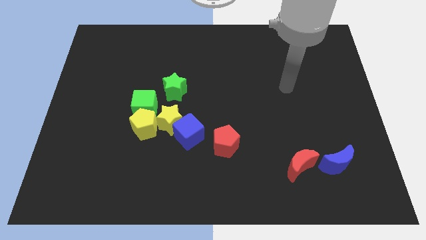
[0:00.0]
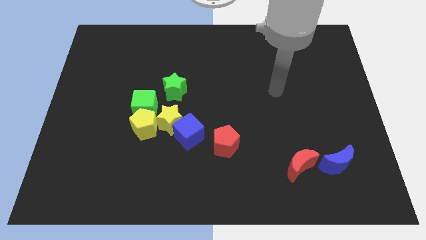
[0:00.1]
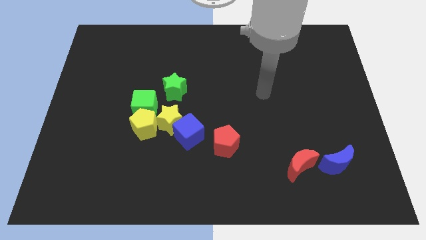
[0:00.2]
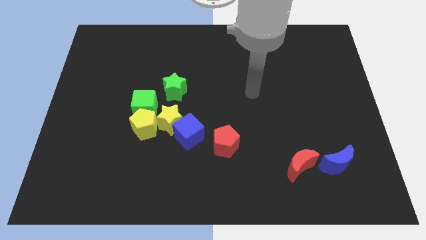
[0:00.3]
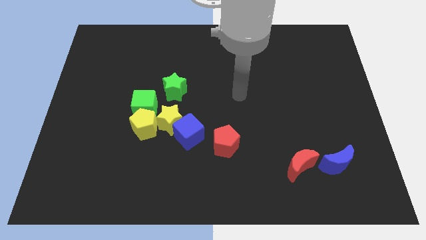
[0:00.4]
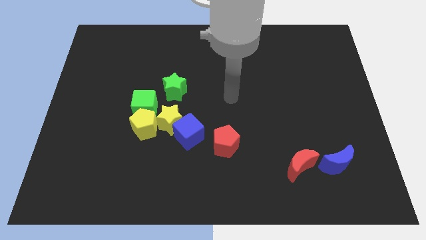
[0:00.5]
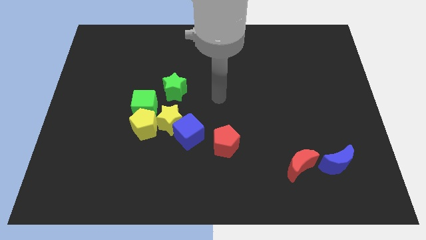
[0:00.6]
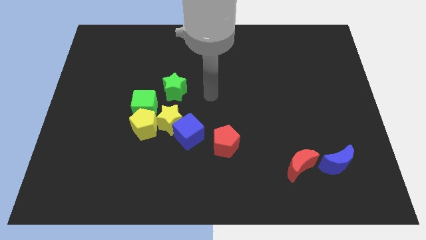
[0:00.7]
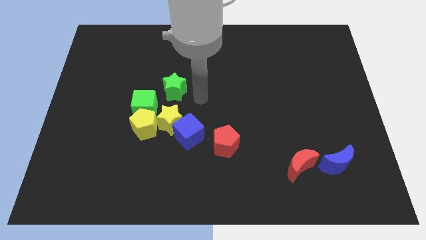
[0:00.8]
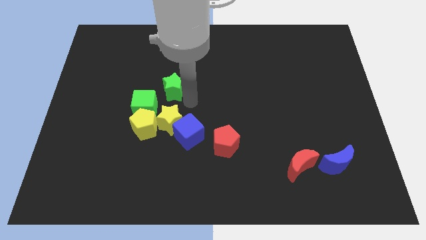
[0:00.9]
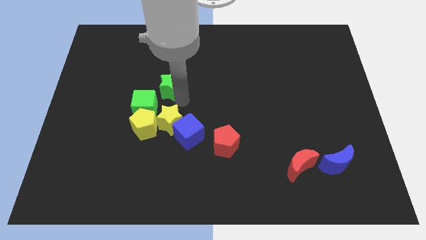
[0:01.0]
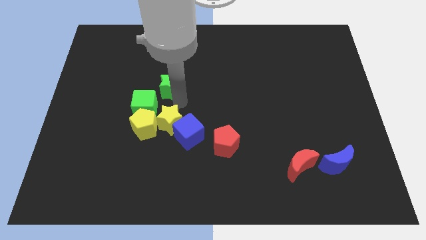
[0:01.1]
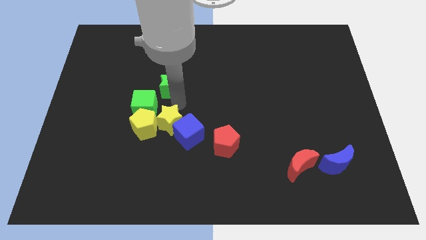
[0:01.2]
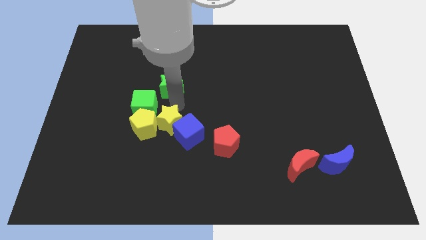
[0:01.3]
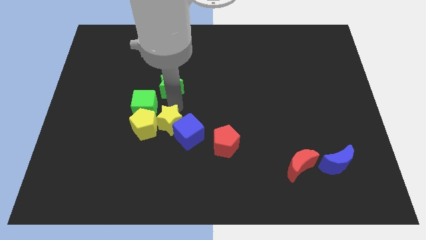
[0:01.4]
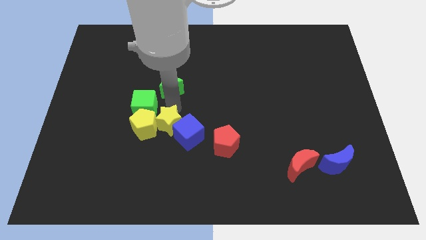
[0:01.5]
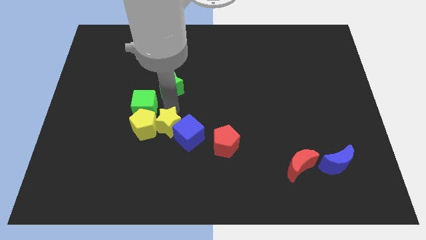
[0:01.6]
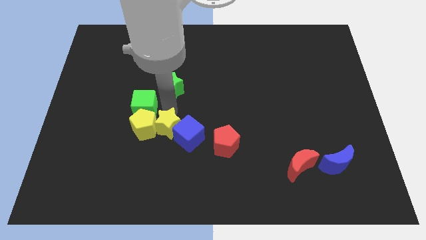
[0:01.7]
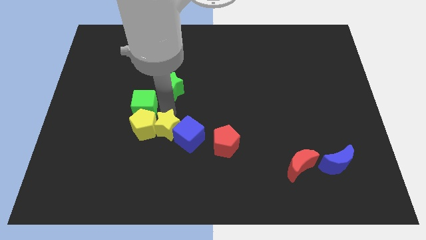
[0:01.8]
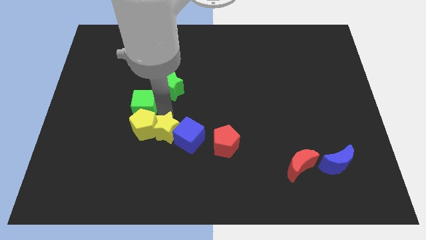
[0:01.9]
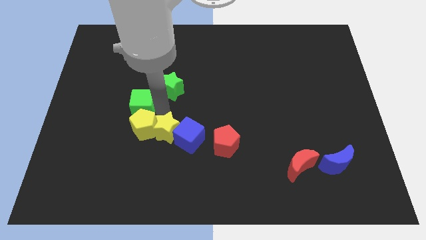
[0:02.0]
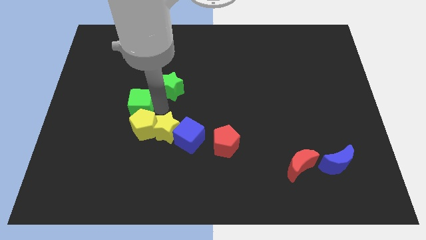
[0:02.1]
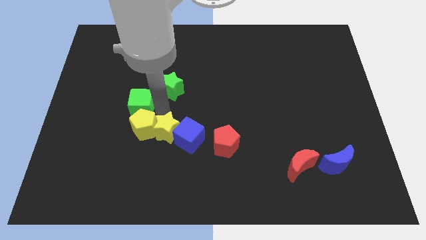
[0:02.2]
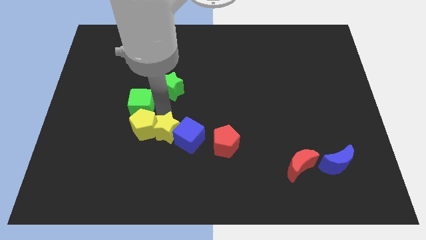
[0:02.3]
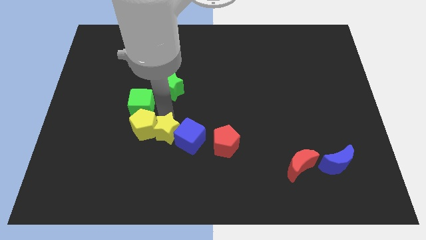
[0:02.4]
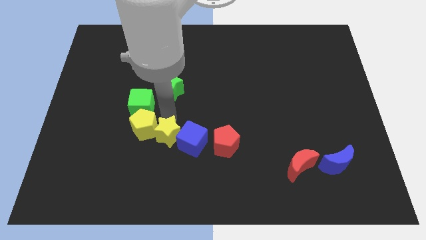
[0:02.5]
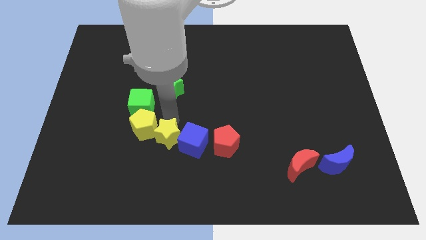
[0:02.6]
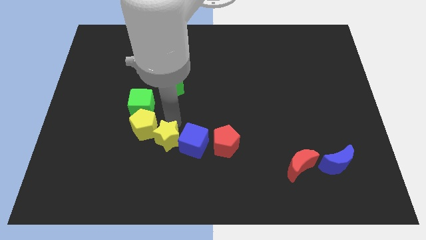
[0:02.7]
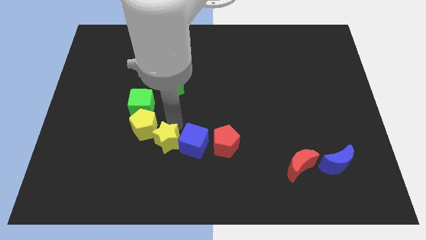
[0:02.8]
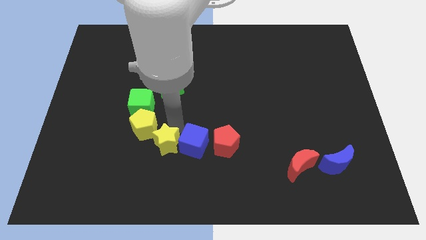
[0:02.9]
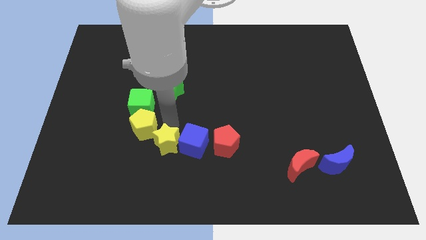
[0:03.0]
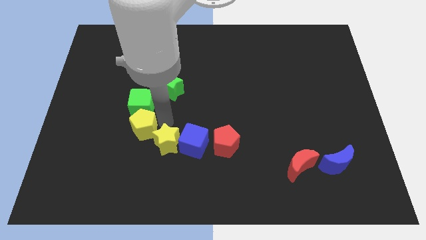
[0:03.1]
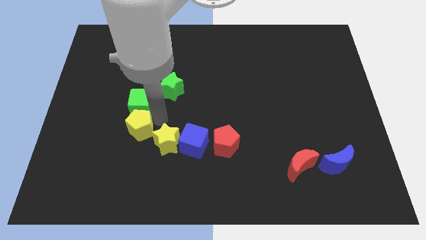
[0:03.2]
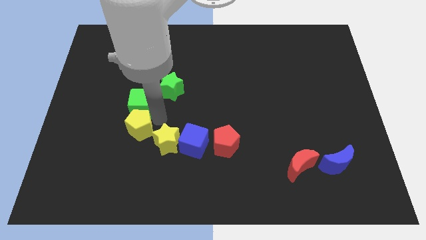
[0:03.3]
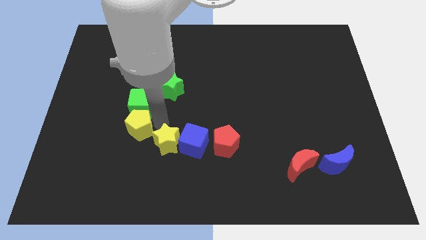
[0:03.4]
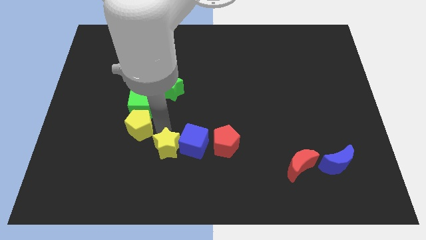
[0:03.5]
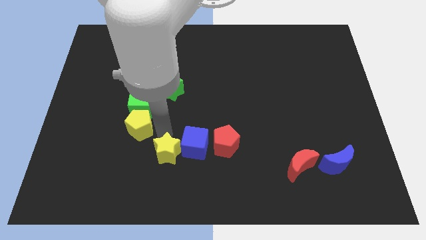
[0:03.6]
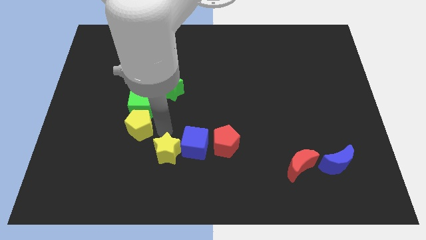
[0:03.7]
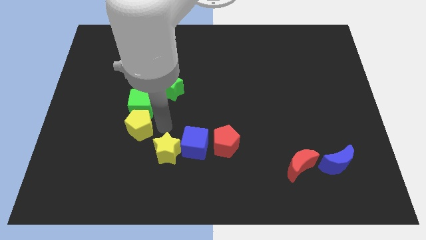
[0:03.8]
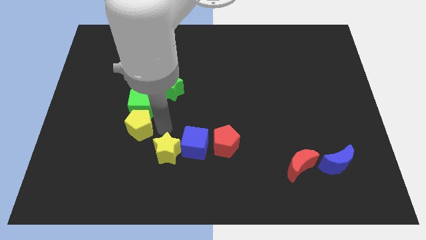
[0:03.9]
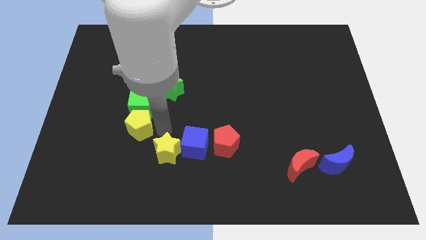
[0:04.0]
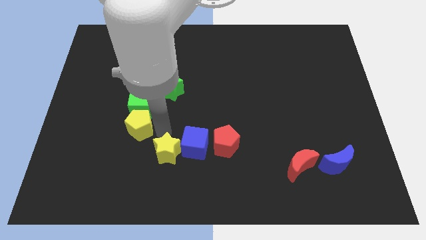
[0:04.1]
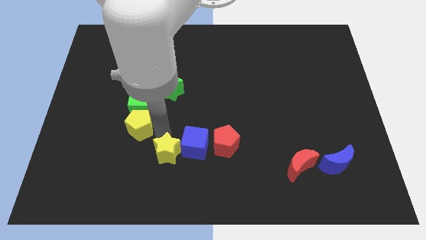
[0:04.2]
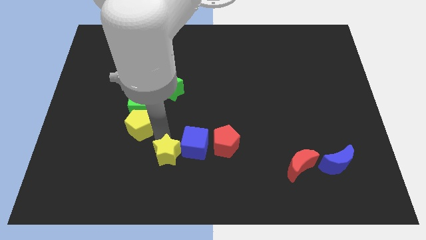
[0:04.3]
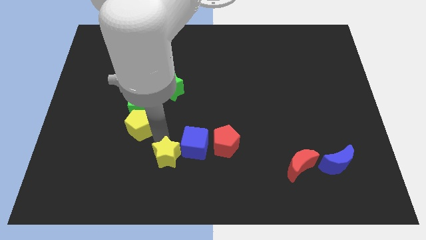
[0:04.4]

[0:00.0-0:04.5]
move the yellow star away from the clump

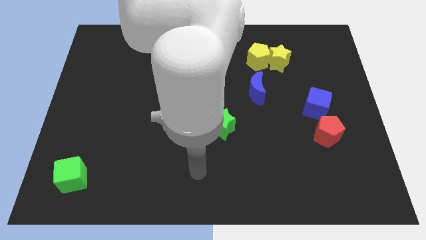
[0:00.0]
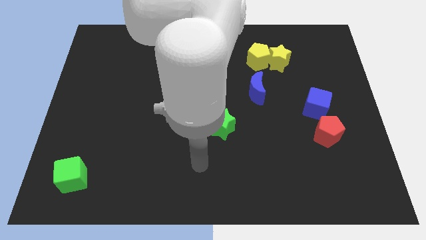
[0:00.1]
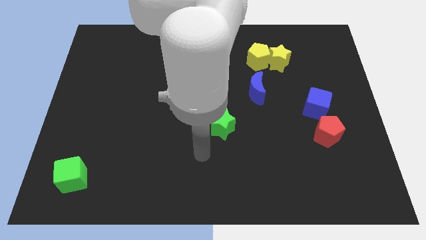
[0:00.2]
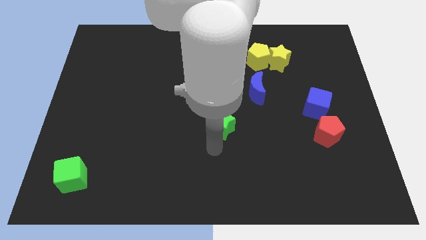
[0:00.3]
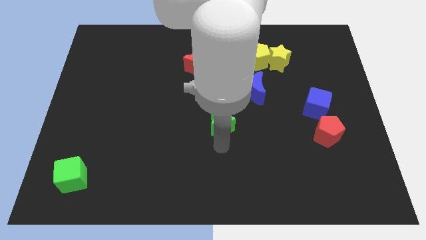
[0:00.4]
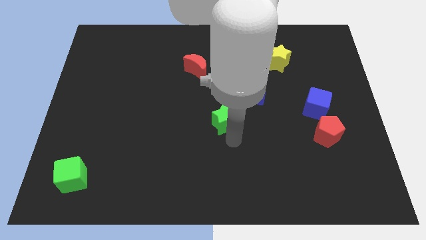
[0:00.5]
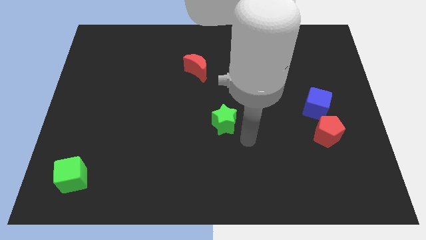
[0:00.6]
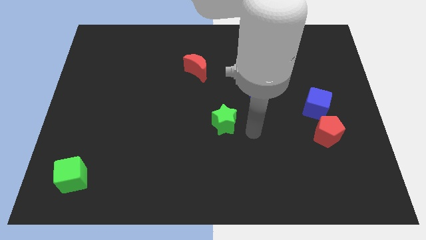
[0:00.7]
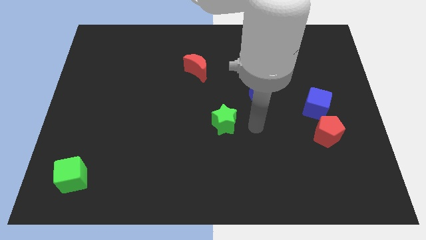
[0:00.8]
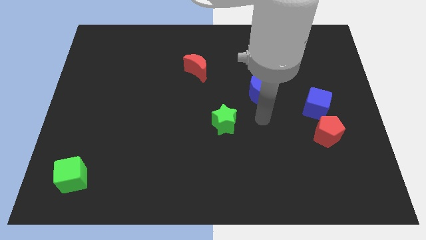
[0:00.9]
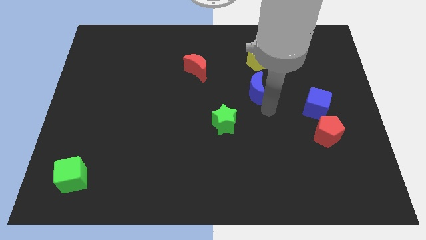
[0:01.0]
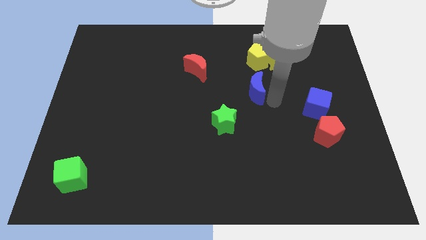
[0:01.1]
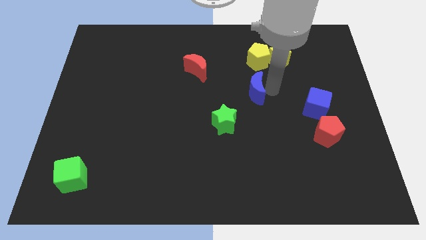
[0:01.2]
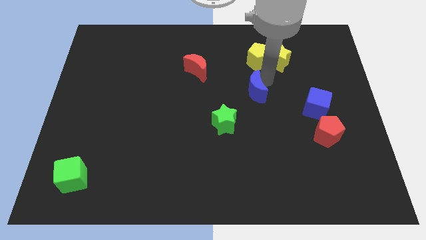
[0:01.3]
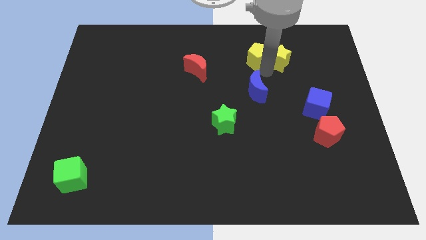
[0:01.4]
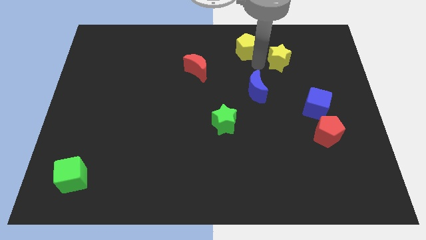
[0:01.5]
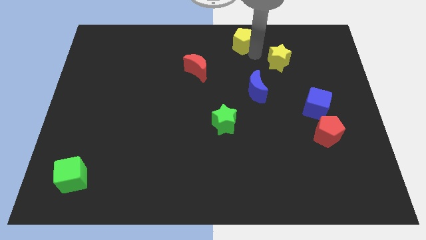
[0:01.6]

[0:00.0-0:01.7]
pull the yellow star apart from the yellow pentagon

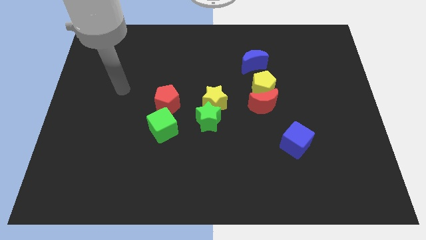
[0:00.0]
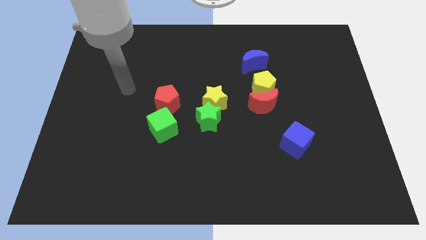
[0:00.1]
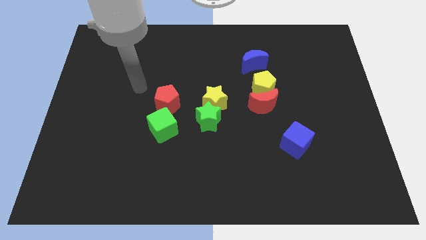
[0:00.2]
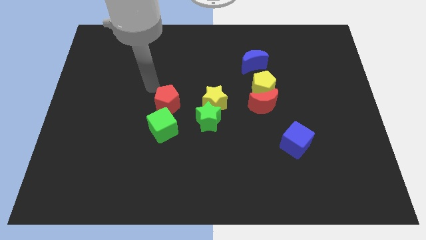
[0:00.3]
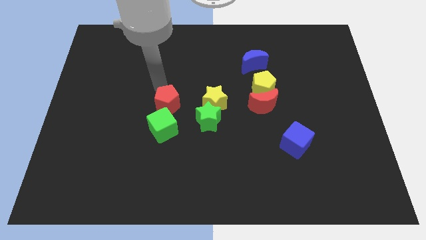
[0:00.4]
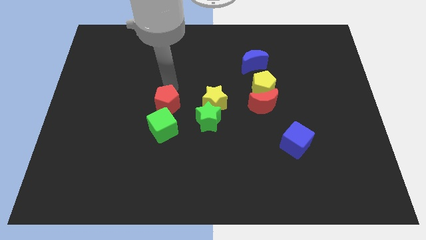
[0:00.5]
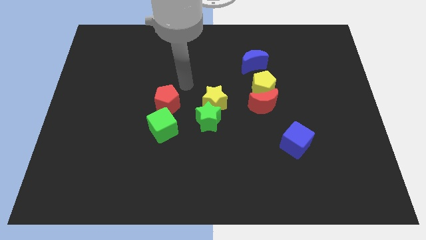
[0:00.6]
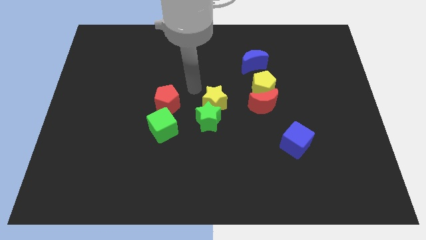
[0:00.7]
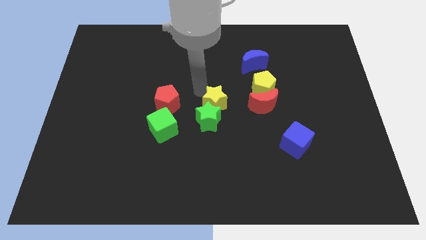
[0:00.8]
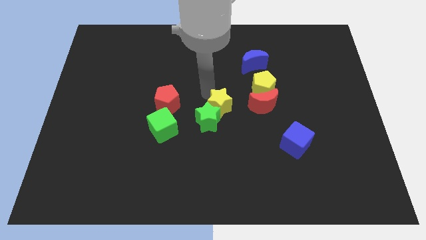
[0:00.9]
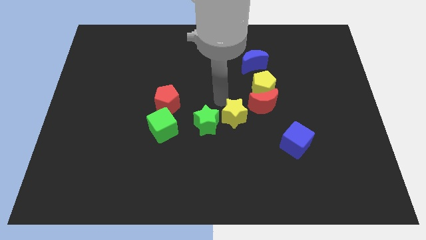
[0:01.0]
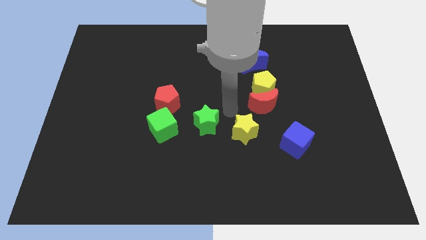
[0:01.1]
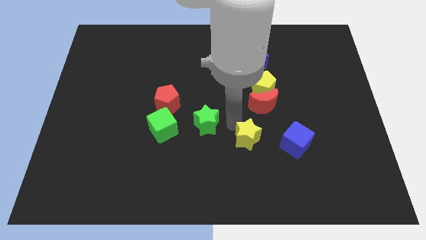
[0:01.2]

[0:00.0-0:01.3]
move the green star away from the yellow star

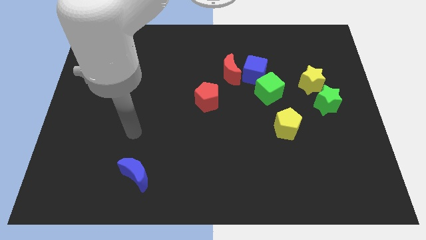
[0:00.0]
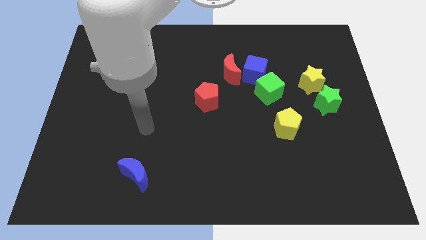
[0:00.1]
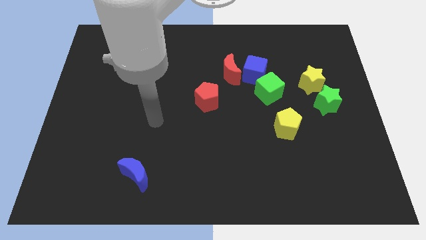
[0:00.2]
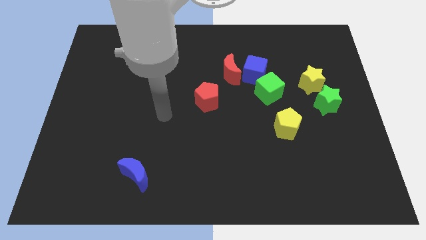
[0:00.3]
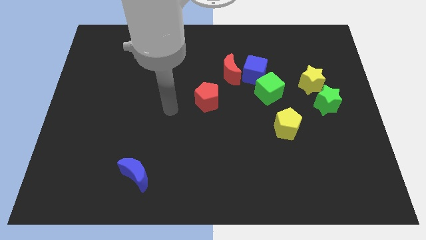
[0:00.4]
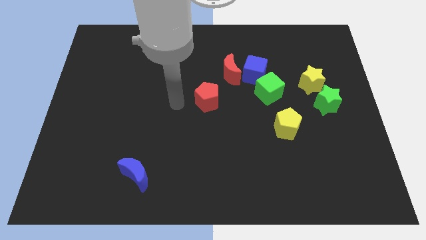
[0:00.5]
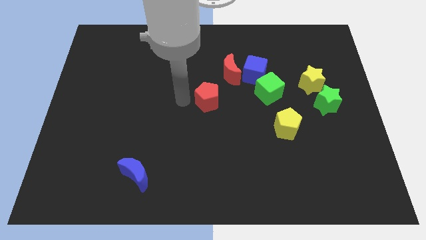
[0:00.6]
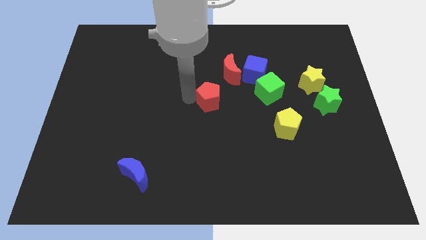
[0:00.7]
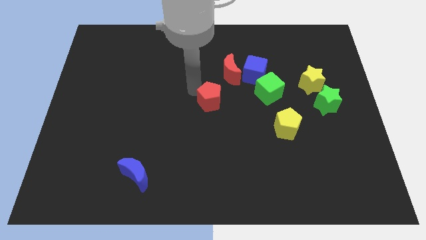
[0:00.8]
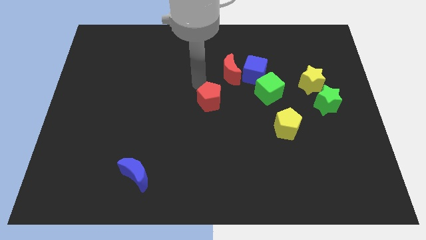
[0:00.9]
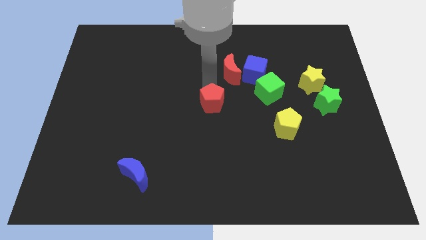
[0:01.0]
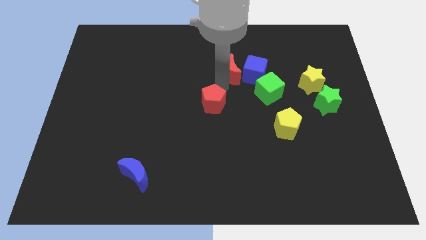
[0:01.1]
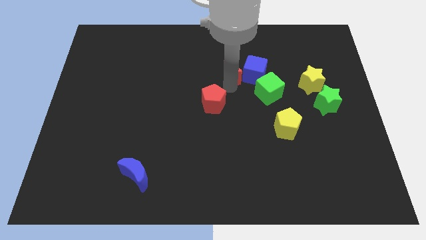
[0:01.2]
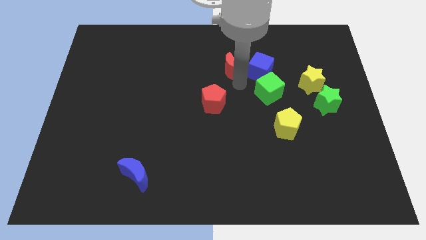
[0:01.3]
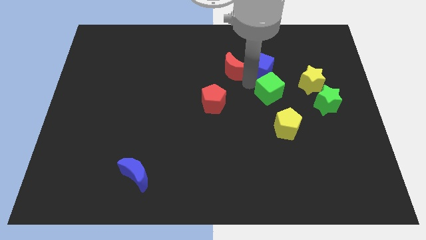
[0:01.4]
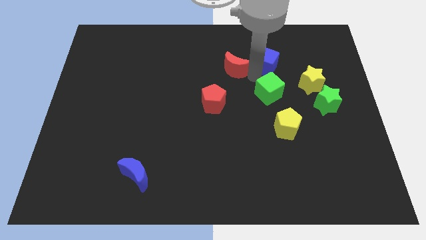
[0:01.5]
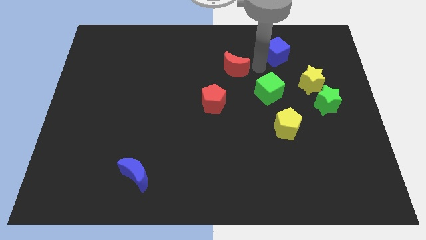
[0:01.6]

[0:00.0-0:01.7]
move the red moon away from the blue cube
